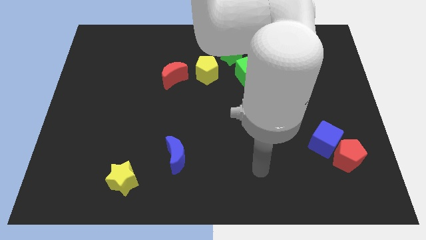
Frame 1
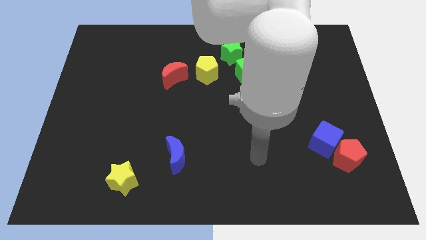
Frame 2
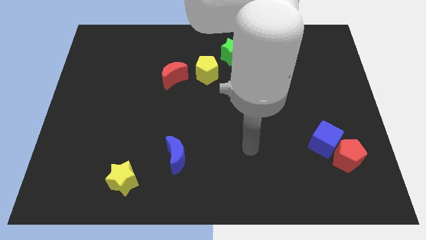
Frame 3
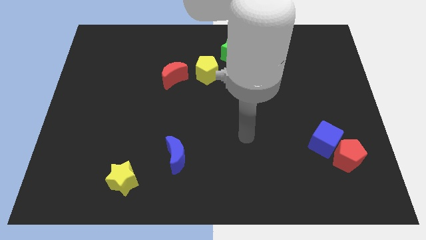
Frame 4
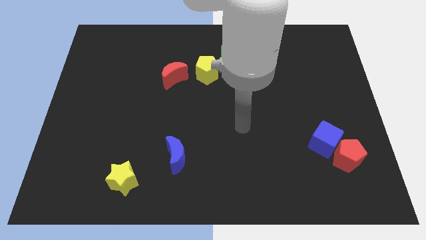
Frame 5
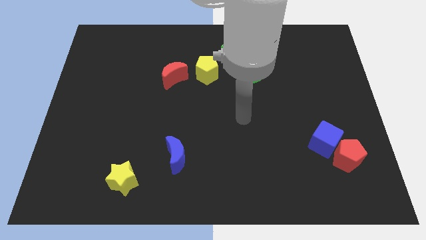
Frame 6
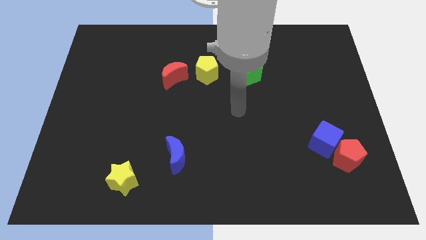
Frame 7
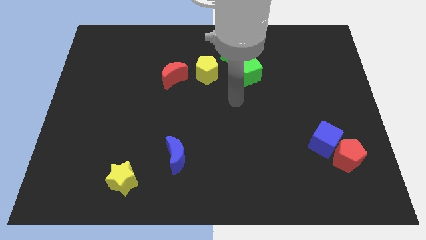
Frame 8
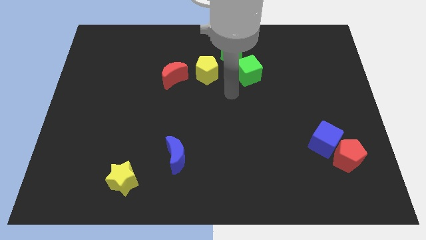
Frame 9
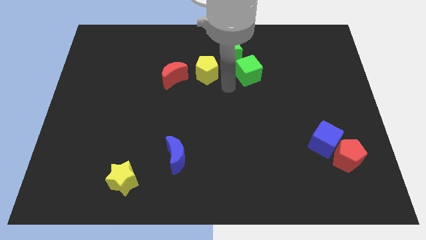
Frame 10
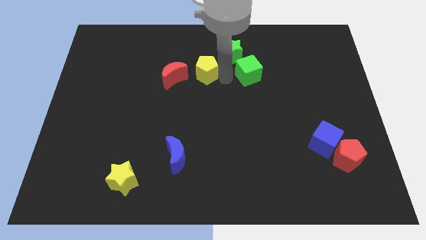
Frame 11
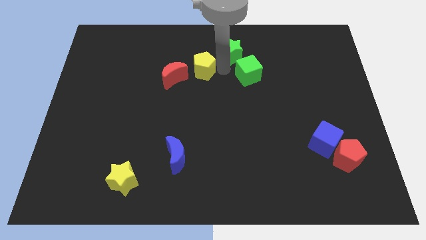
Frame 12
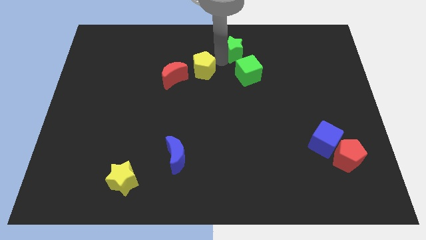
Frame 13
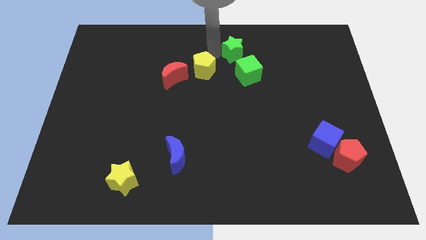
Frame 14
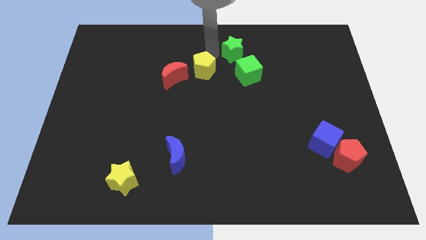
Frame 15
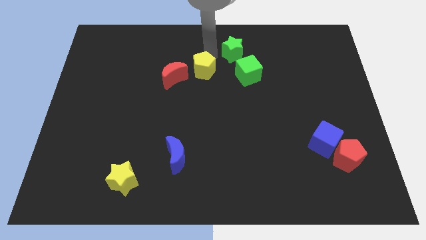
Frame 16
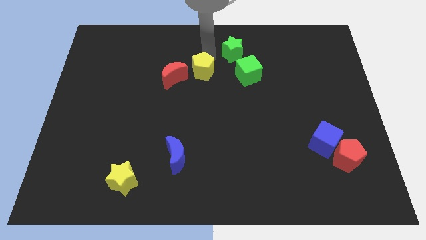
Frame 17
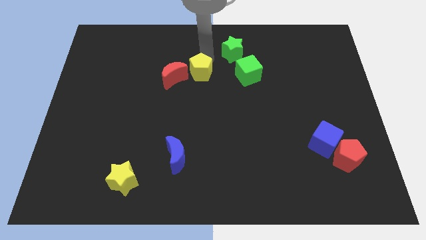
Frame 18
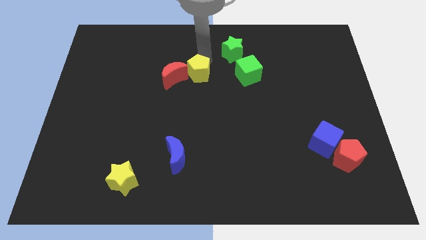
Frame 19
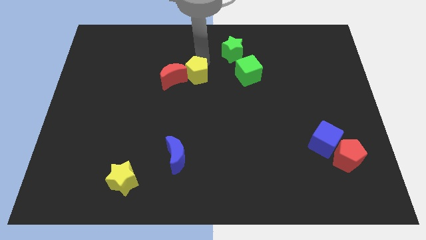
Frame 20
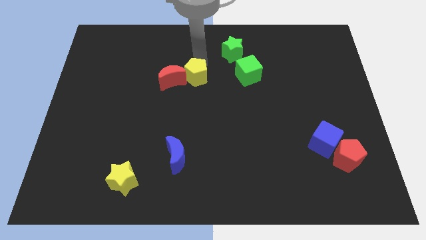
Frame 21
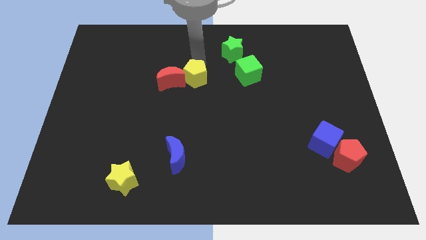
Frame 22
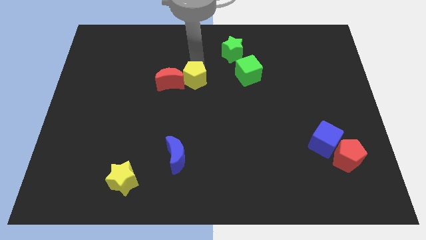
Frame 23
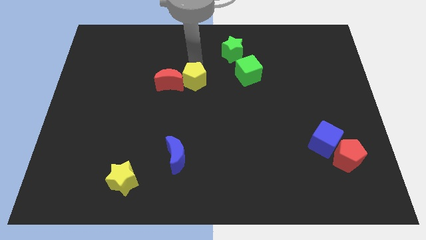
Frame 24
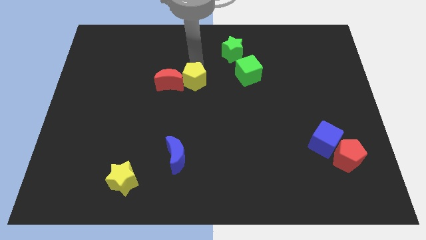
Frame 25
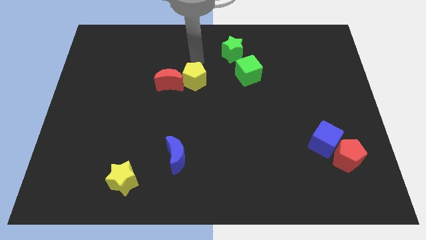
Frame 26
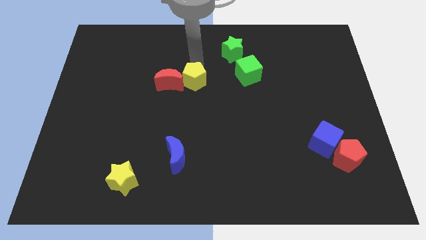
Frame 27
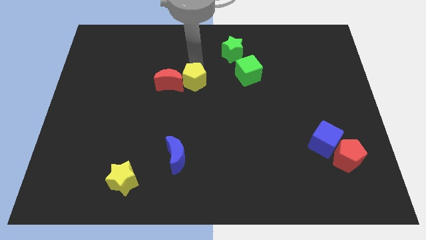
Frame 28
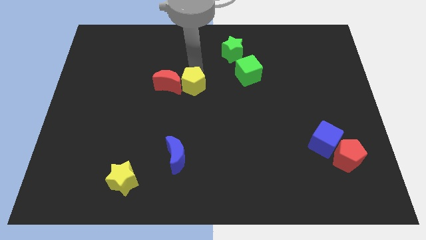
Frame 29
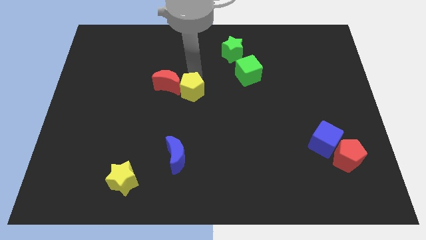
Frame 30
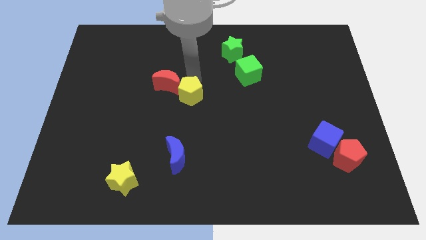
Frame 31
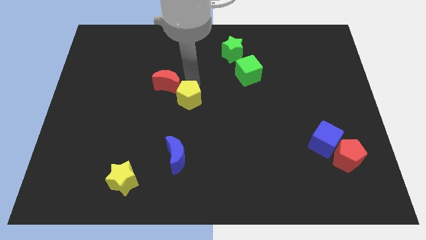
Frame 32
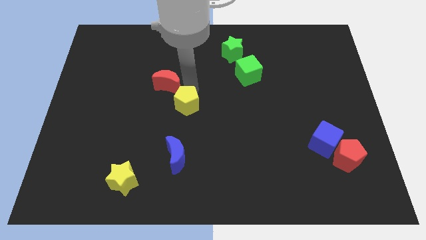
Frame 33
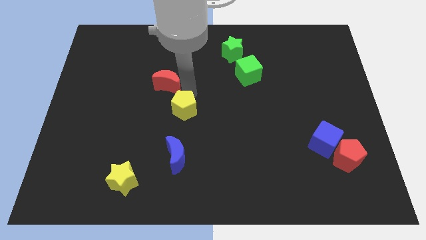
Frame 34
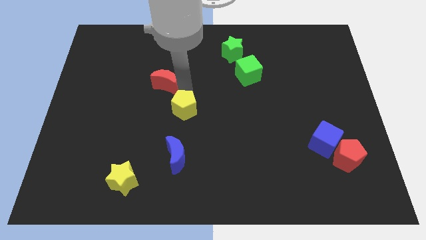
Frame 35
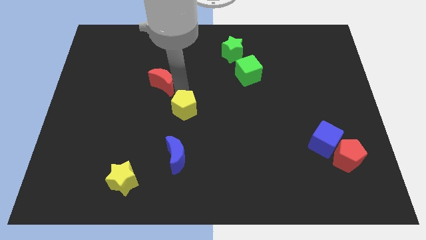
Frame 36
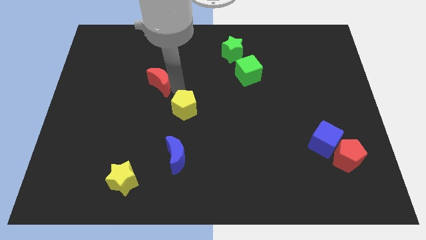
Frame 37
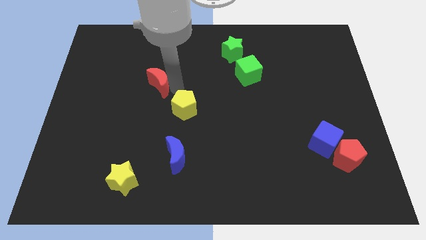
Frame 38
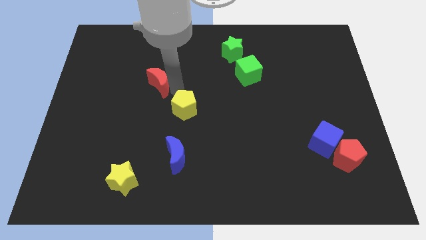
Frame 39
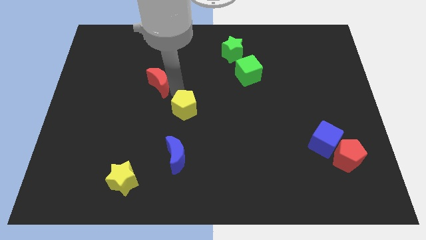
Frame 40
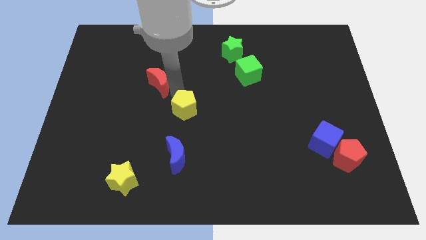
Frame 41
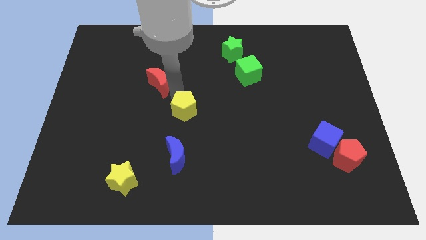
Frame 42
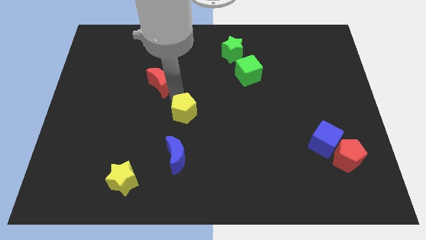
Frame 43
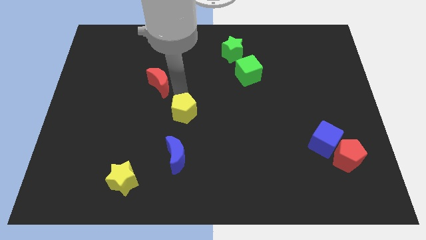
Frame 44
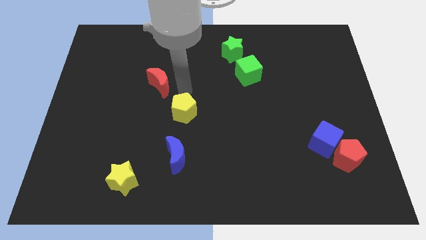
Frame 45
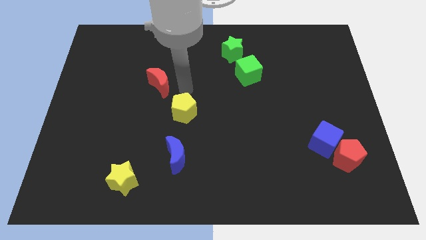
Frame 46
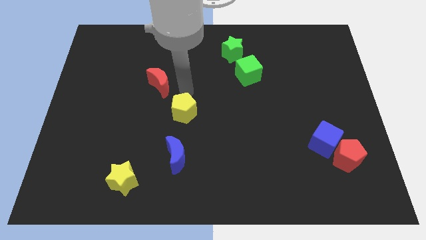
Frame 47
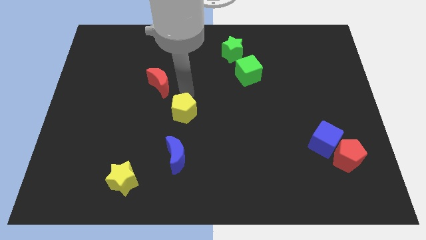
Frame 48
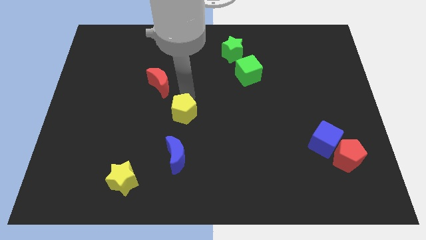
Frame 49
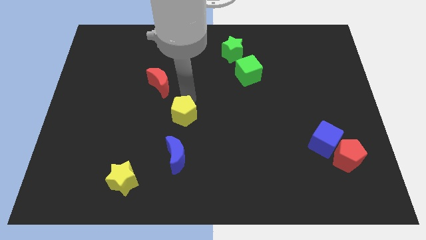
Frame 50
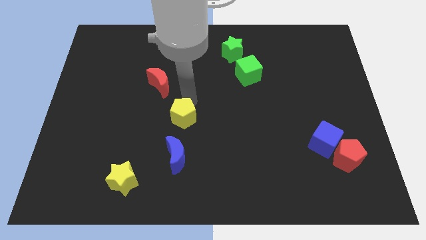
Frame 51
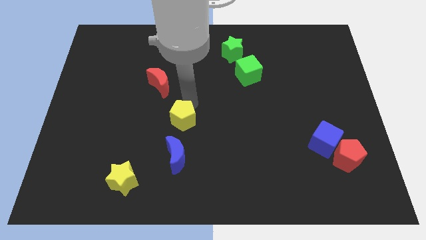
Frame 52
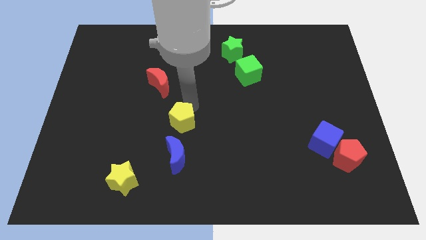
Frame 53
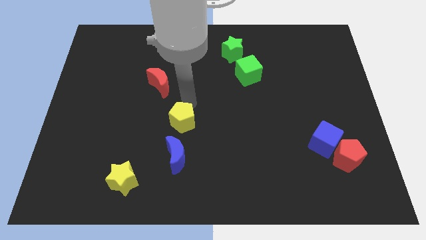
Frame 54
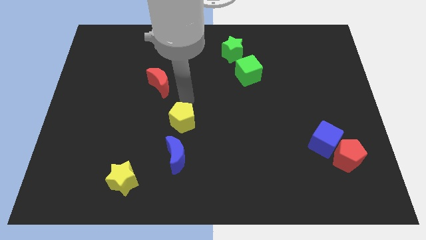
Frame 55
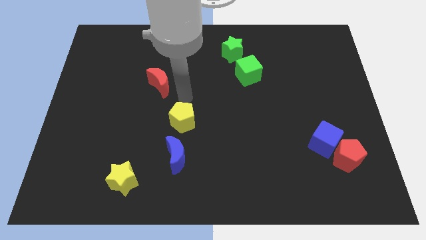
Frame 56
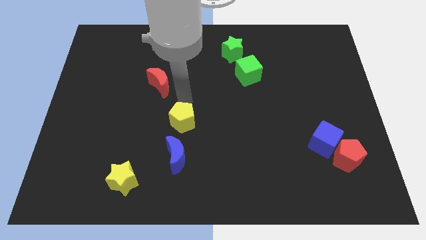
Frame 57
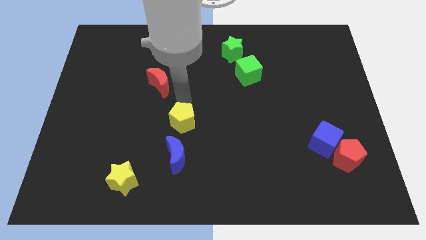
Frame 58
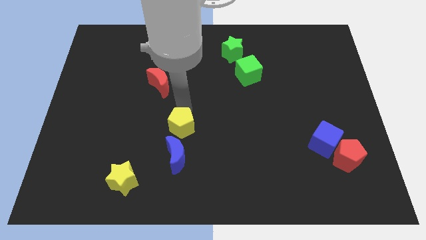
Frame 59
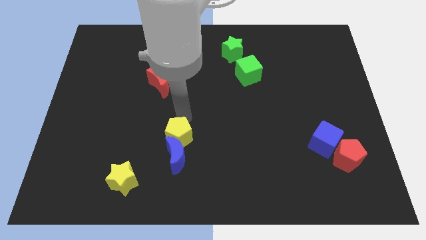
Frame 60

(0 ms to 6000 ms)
push the yellow pentagon close to the blue moon

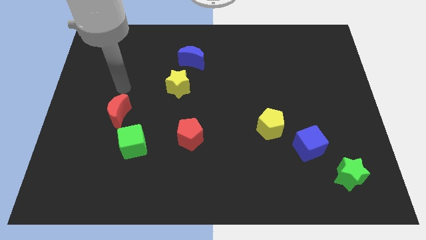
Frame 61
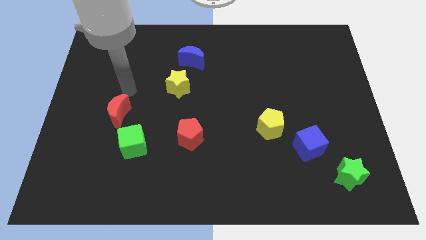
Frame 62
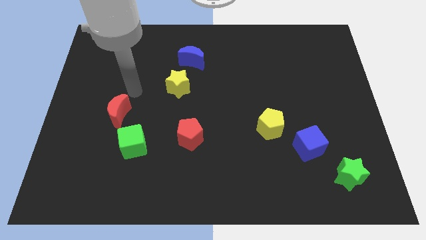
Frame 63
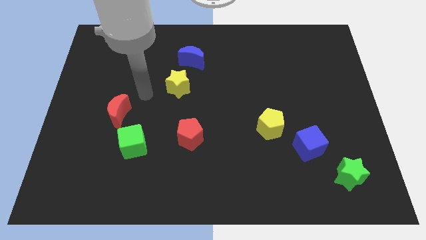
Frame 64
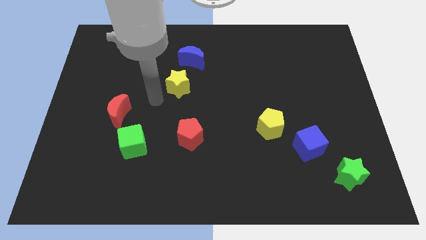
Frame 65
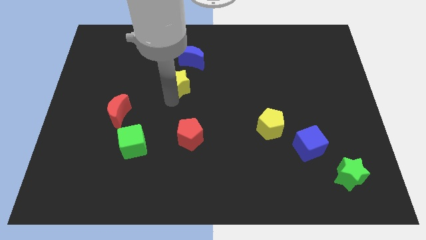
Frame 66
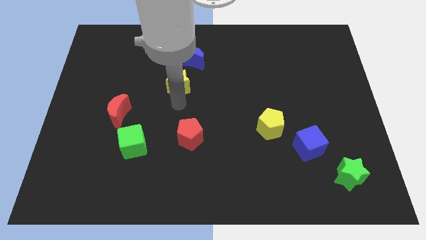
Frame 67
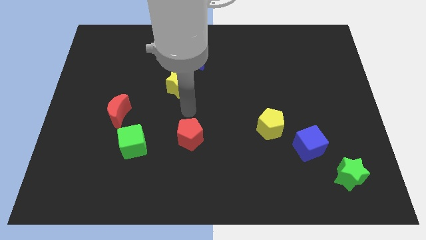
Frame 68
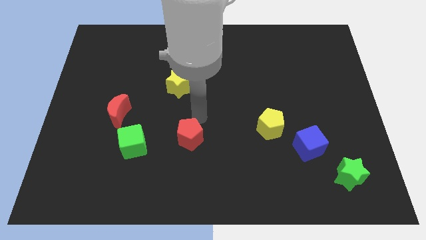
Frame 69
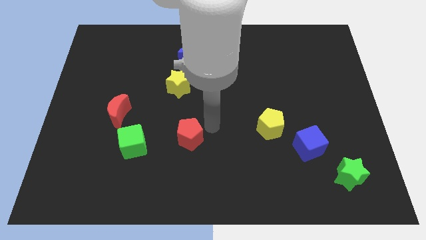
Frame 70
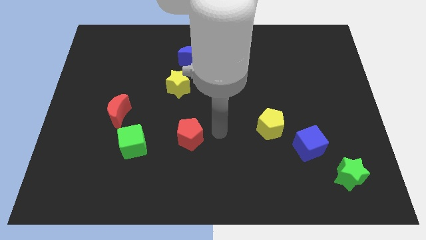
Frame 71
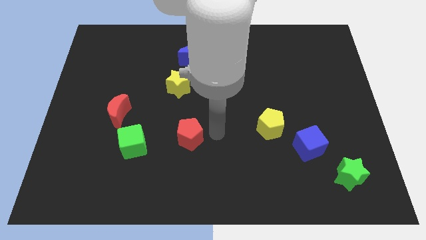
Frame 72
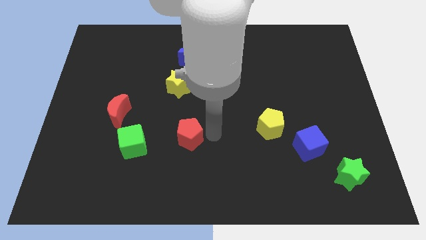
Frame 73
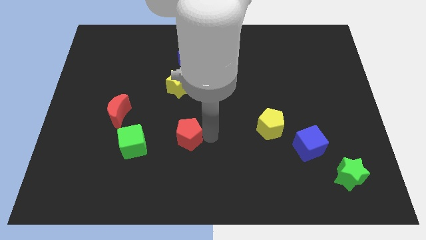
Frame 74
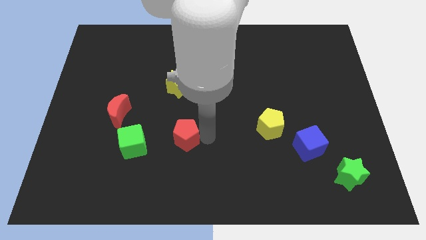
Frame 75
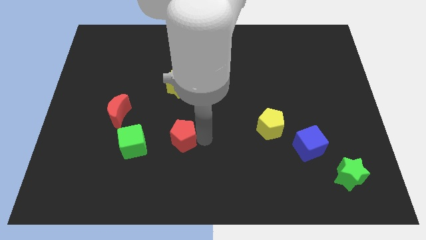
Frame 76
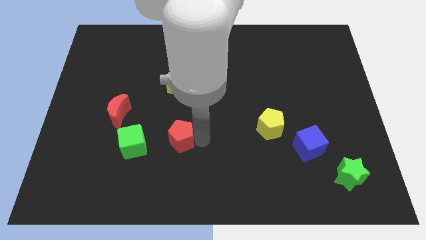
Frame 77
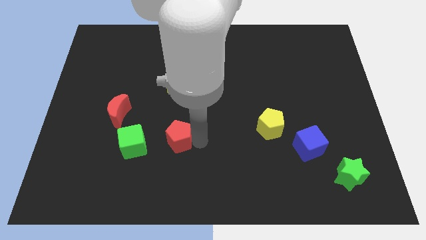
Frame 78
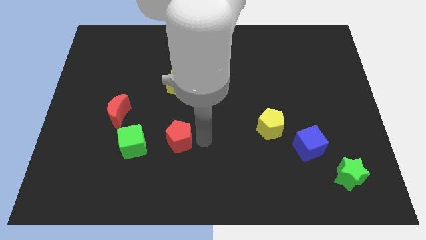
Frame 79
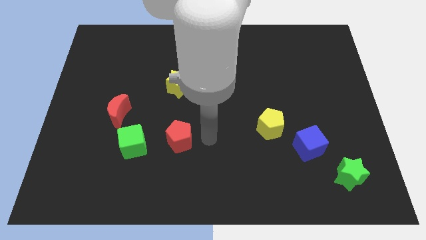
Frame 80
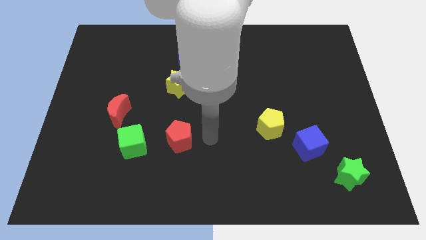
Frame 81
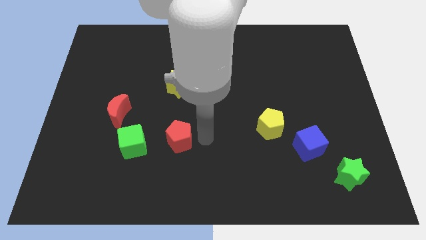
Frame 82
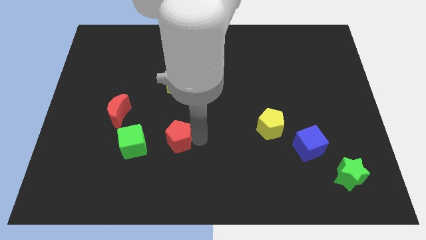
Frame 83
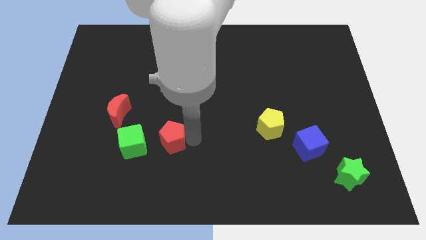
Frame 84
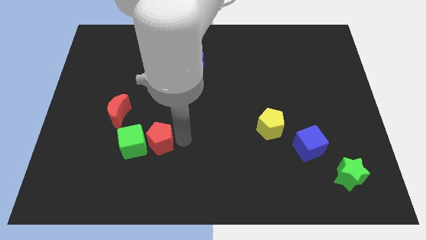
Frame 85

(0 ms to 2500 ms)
move the red pentagon next to the green cube
